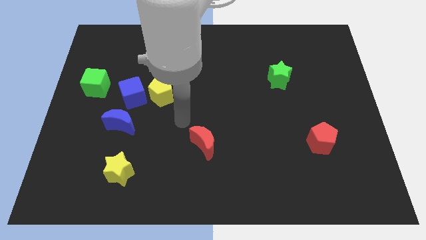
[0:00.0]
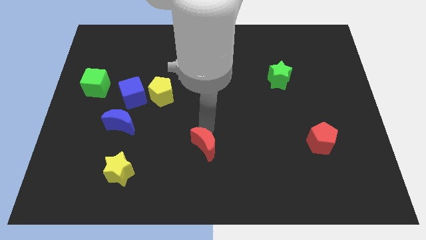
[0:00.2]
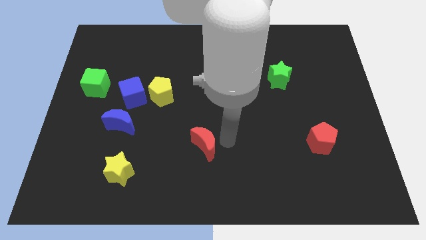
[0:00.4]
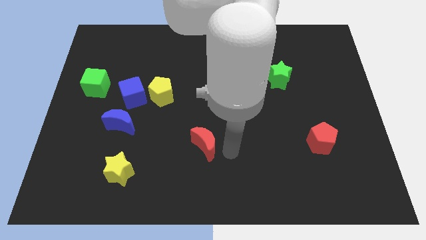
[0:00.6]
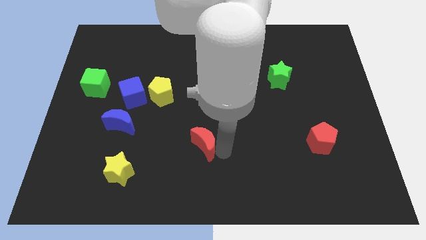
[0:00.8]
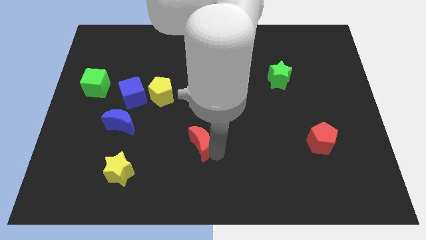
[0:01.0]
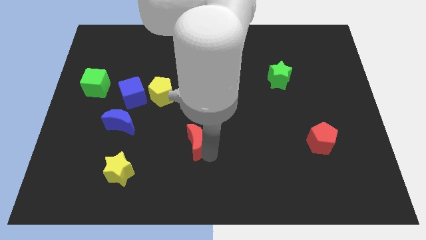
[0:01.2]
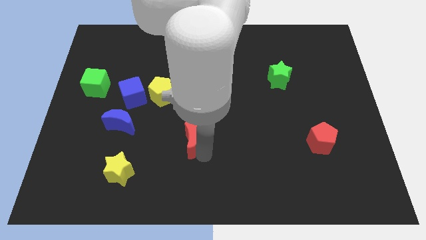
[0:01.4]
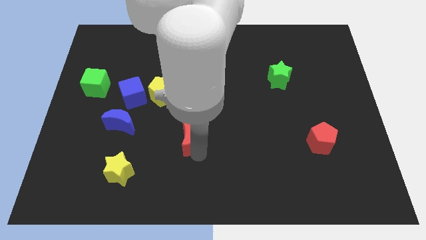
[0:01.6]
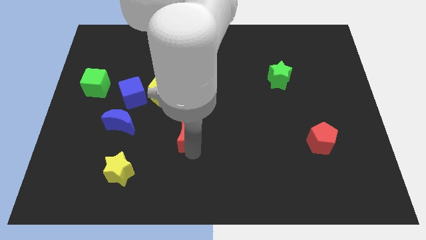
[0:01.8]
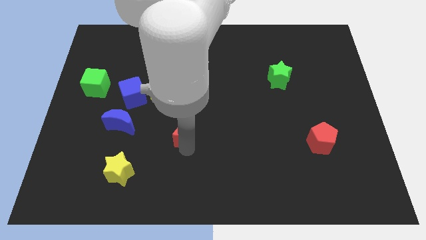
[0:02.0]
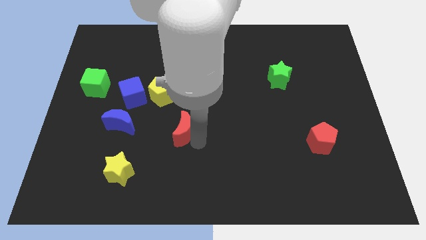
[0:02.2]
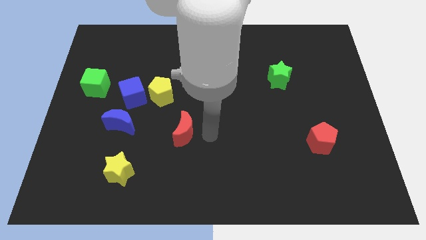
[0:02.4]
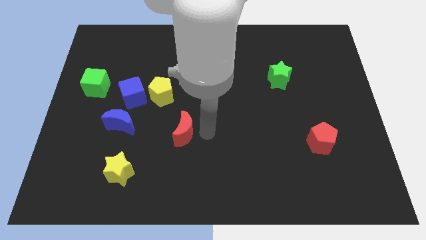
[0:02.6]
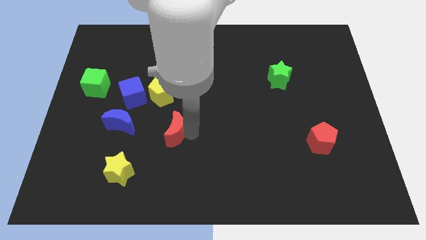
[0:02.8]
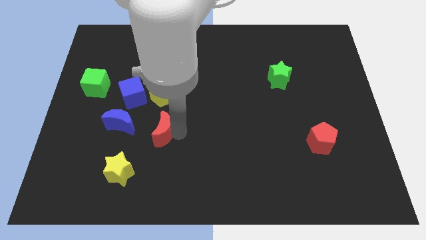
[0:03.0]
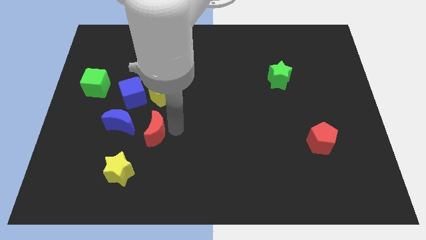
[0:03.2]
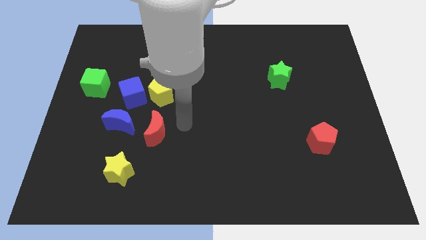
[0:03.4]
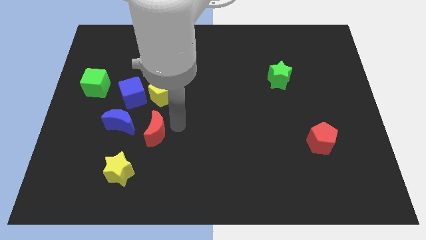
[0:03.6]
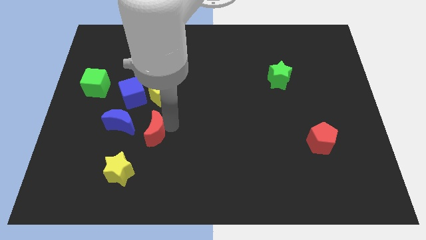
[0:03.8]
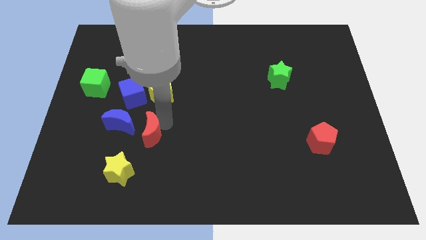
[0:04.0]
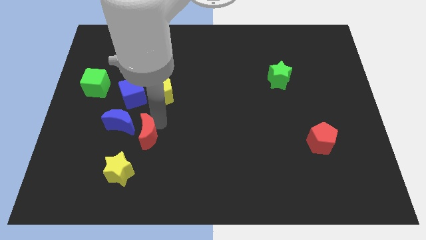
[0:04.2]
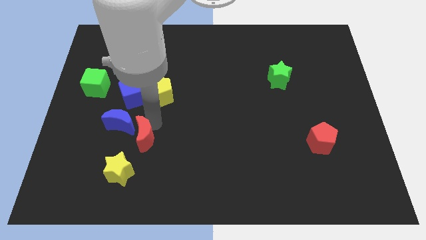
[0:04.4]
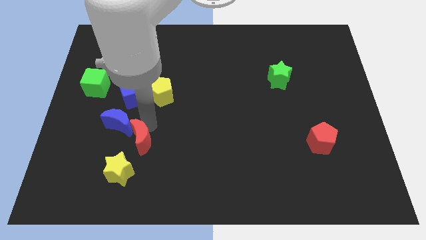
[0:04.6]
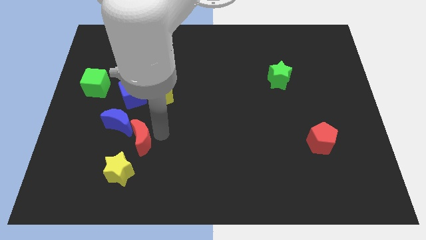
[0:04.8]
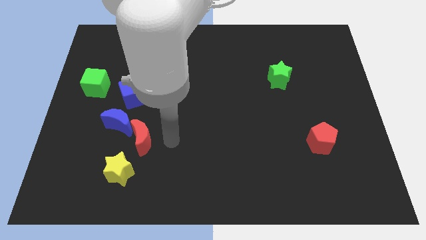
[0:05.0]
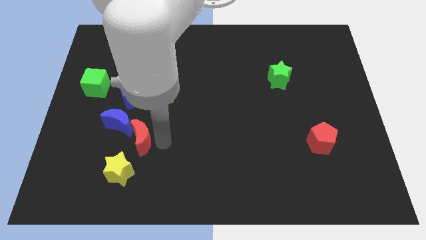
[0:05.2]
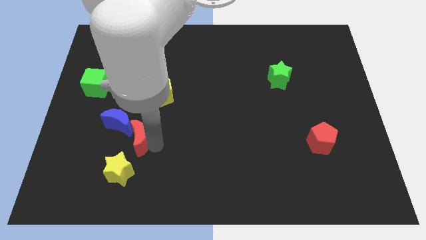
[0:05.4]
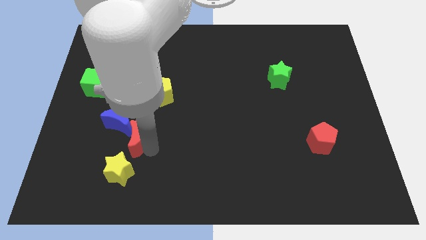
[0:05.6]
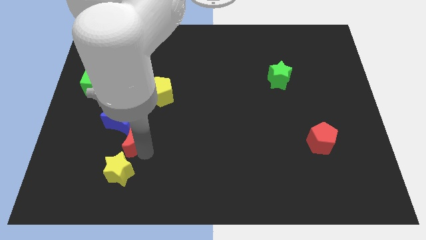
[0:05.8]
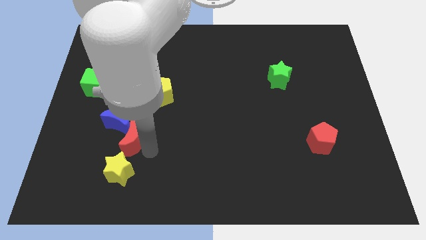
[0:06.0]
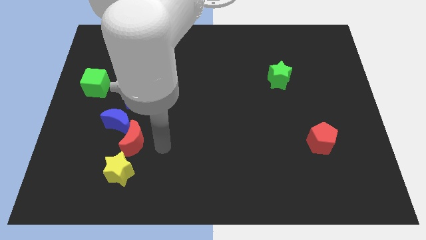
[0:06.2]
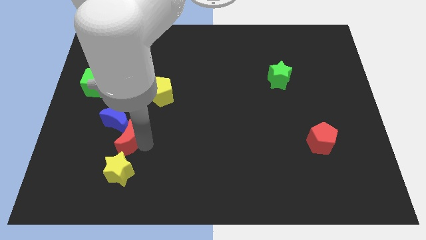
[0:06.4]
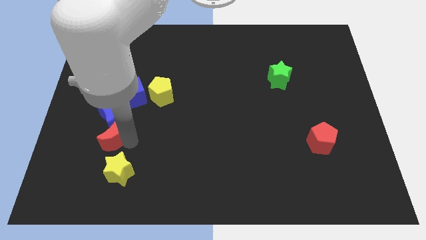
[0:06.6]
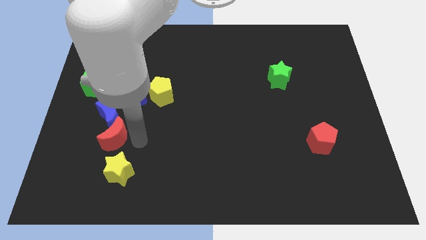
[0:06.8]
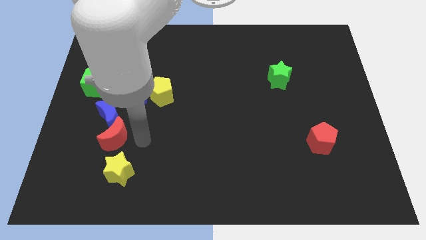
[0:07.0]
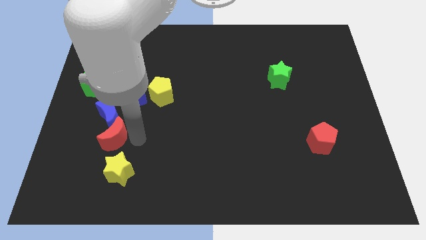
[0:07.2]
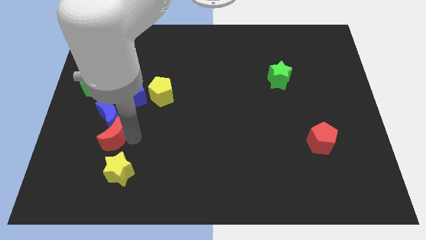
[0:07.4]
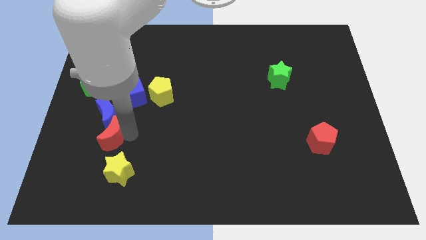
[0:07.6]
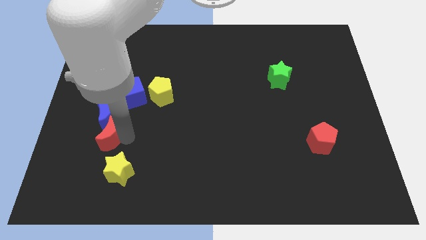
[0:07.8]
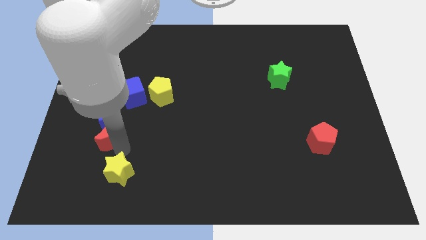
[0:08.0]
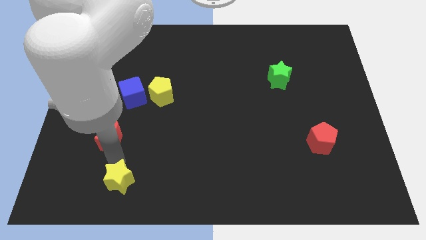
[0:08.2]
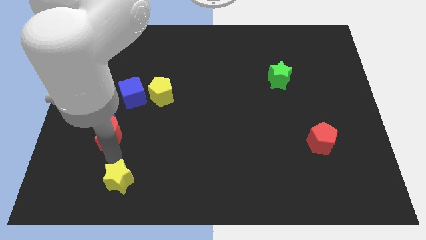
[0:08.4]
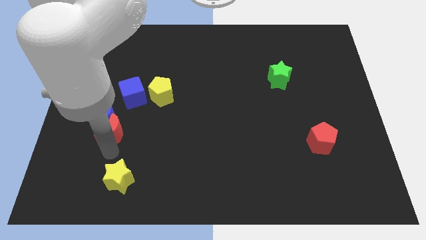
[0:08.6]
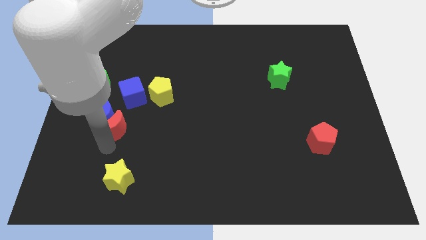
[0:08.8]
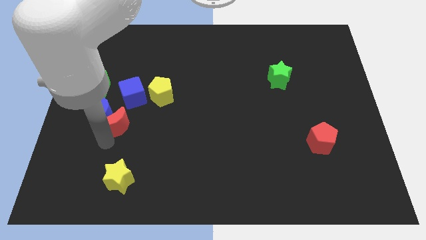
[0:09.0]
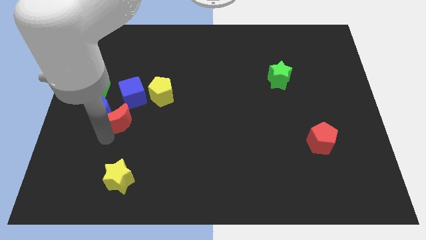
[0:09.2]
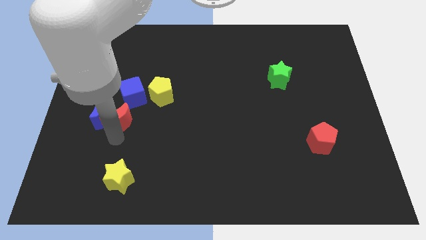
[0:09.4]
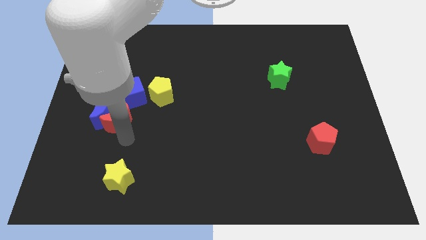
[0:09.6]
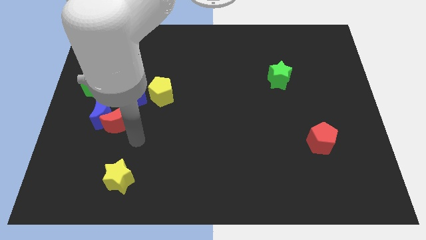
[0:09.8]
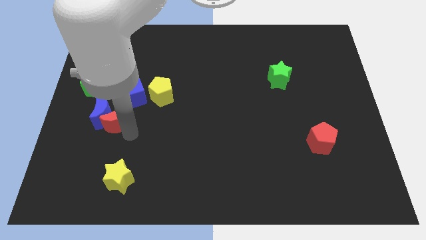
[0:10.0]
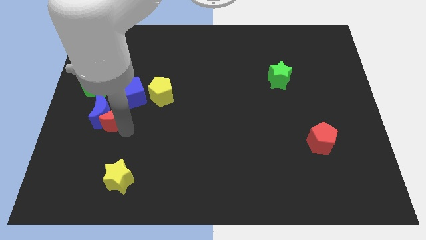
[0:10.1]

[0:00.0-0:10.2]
push the red moon diagonally down and to the right of the green cube
